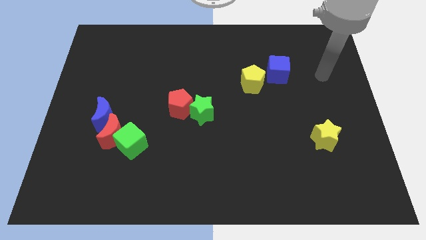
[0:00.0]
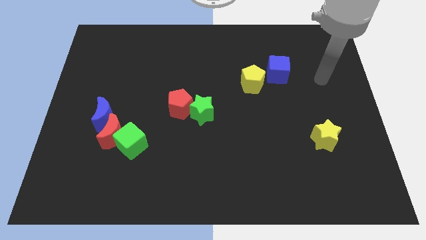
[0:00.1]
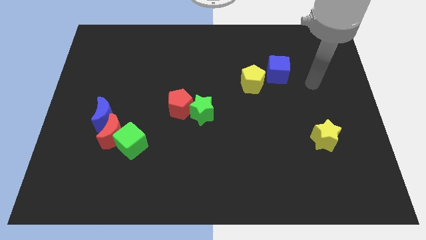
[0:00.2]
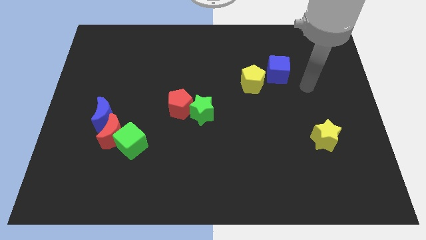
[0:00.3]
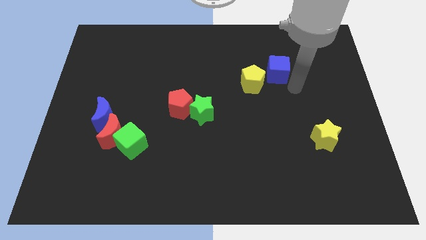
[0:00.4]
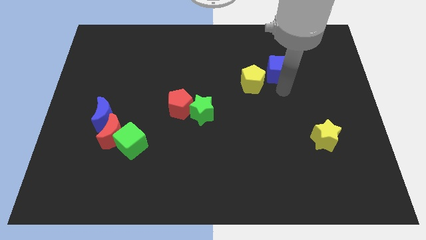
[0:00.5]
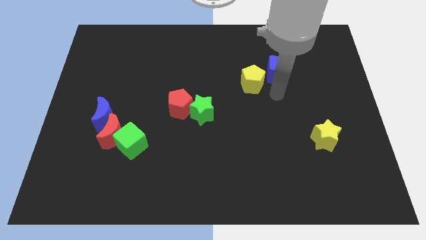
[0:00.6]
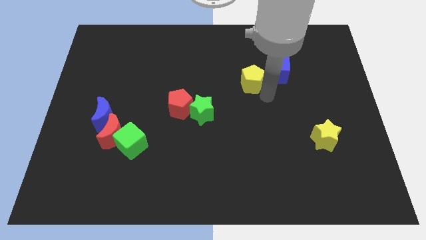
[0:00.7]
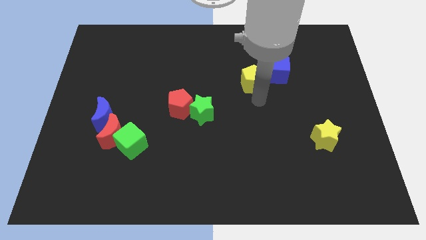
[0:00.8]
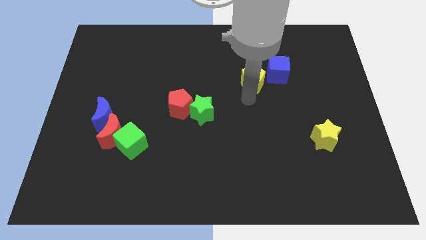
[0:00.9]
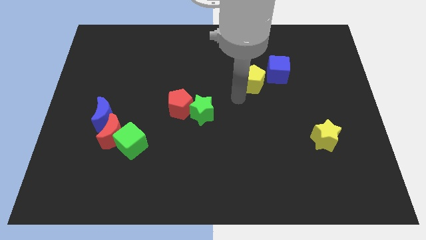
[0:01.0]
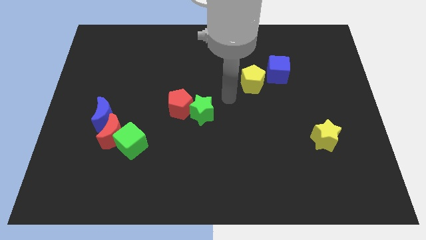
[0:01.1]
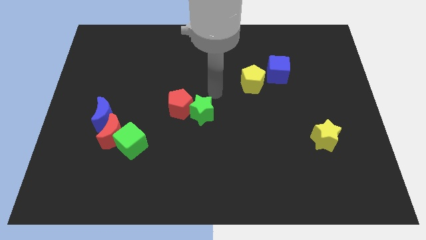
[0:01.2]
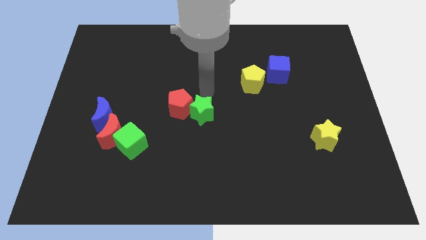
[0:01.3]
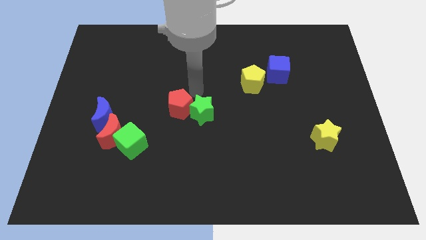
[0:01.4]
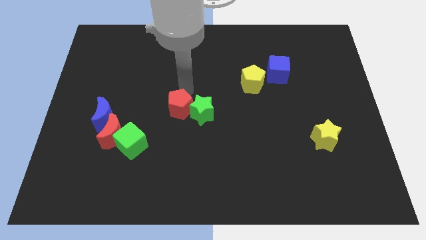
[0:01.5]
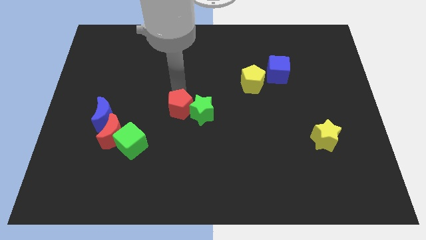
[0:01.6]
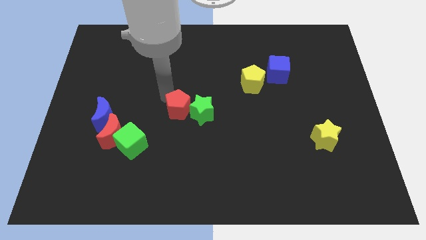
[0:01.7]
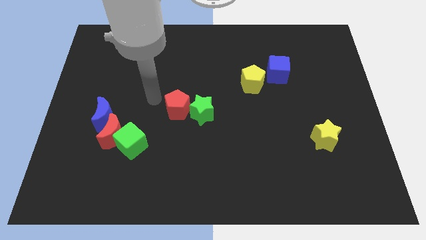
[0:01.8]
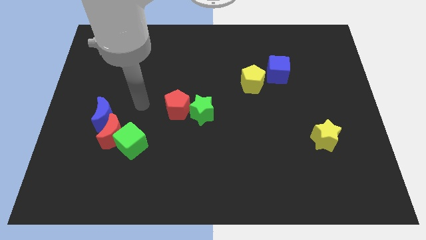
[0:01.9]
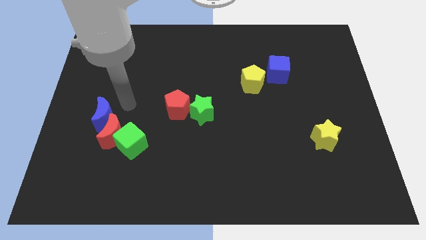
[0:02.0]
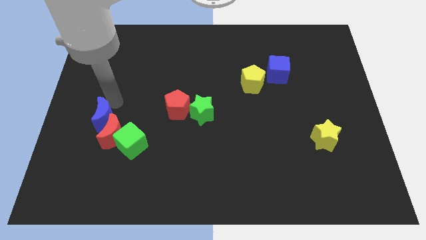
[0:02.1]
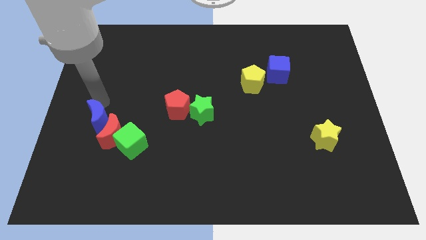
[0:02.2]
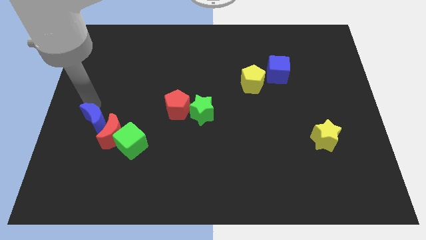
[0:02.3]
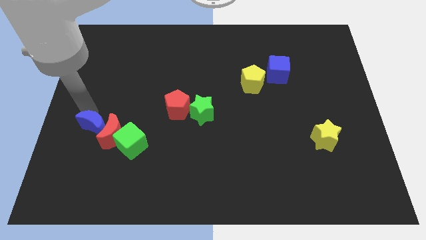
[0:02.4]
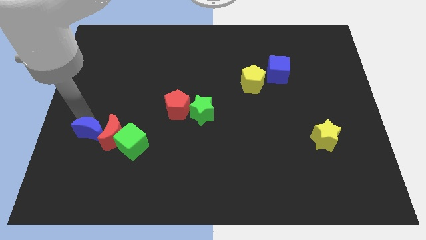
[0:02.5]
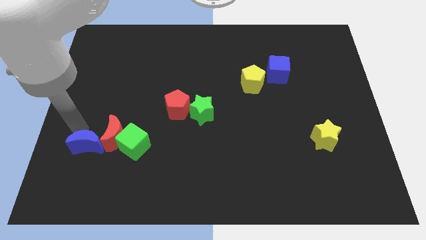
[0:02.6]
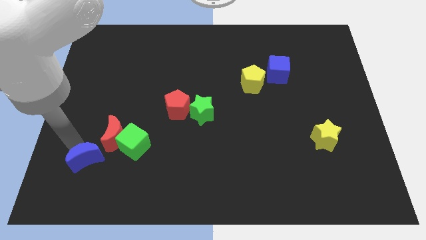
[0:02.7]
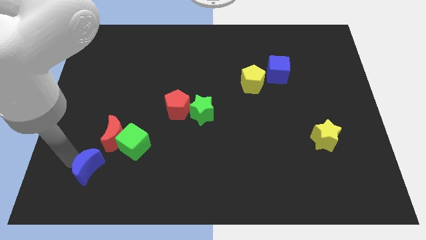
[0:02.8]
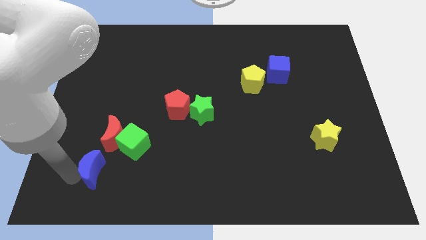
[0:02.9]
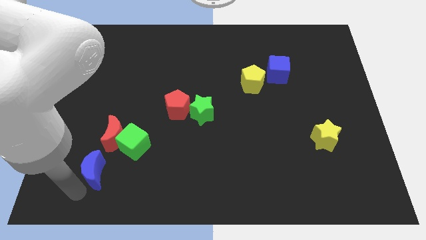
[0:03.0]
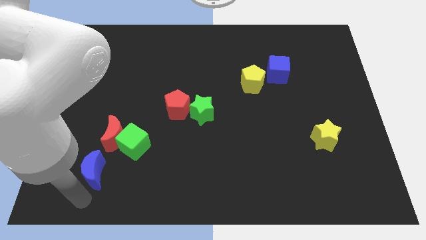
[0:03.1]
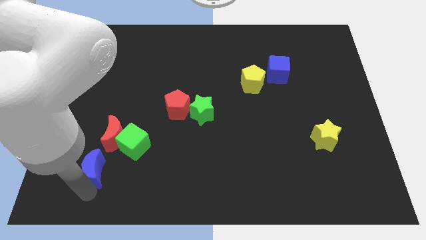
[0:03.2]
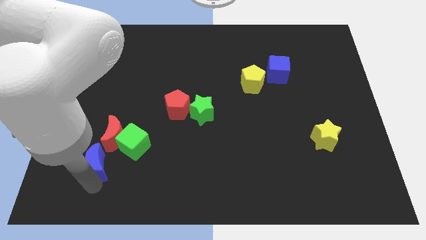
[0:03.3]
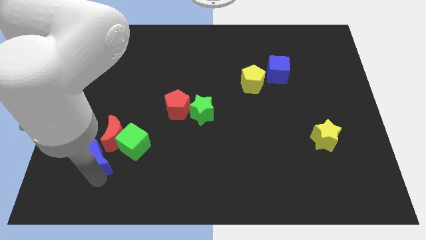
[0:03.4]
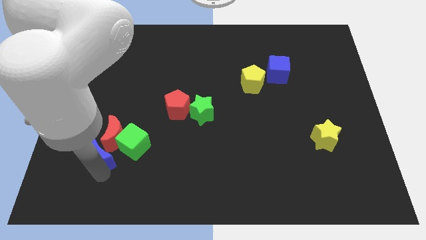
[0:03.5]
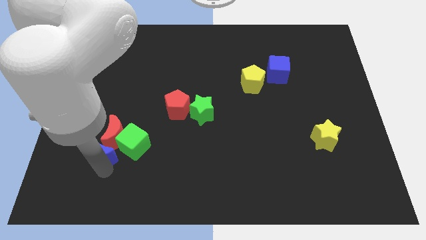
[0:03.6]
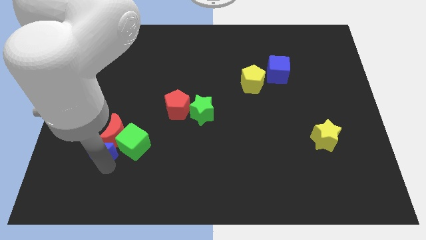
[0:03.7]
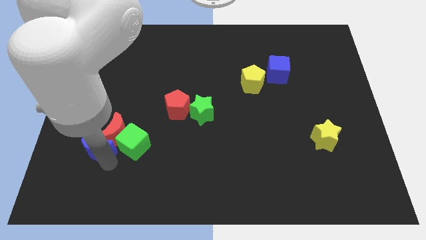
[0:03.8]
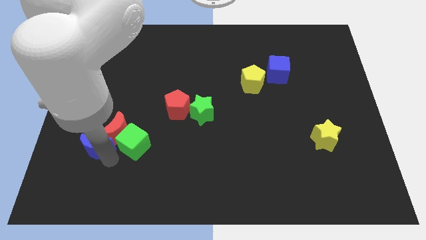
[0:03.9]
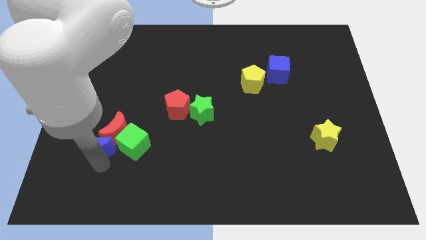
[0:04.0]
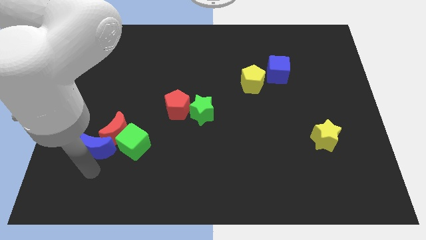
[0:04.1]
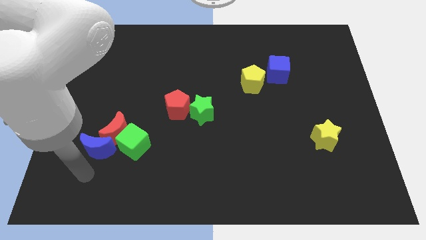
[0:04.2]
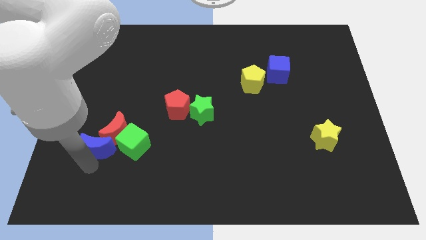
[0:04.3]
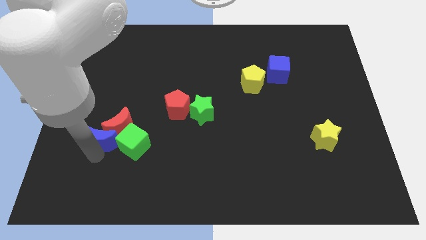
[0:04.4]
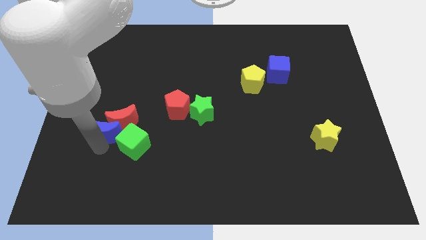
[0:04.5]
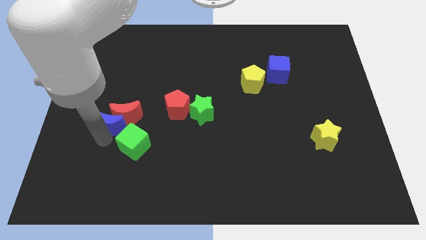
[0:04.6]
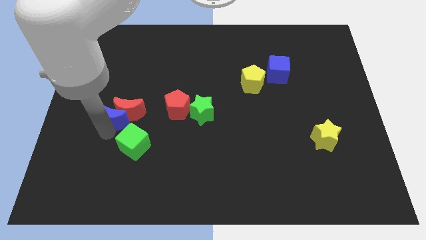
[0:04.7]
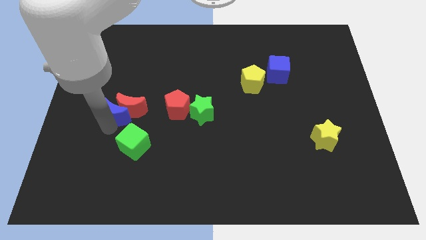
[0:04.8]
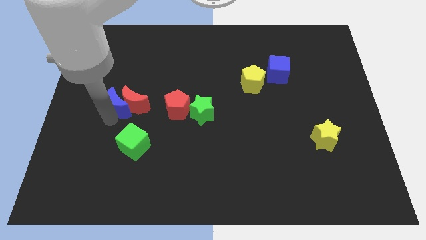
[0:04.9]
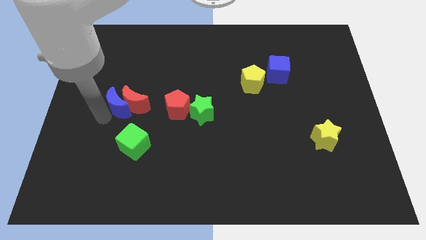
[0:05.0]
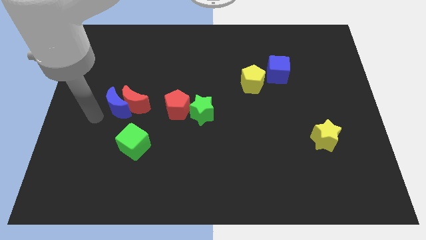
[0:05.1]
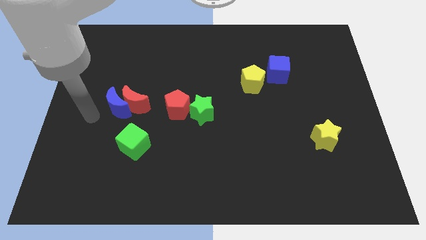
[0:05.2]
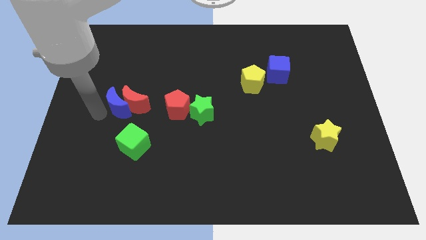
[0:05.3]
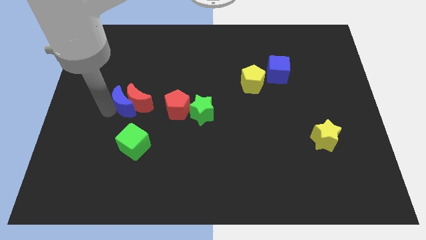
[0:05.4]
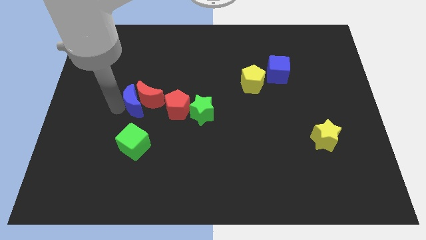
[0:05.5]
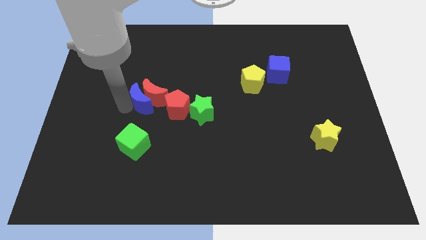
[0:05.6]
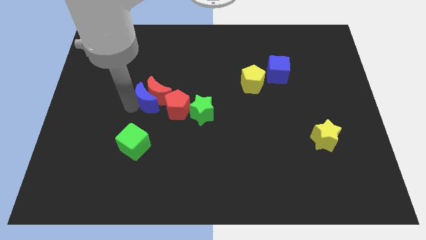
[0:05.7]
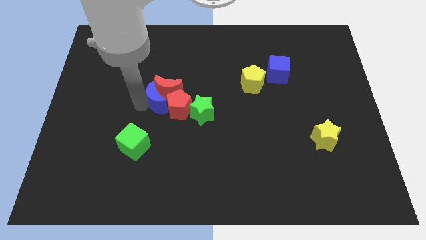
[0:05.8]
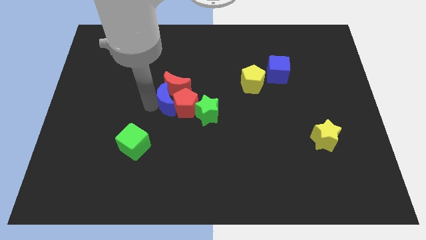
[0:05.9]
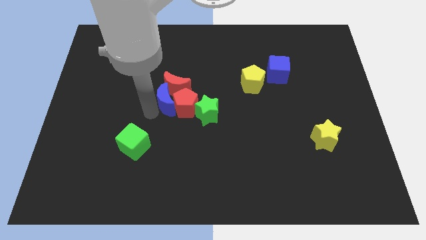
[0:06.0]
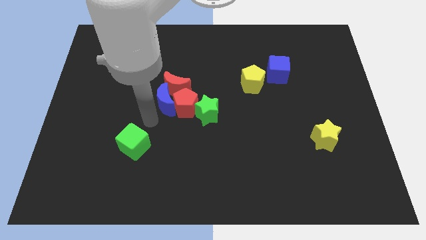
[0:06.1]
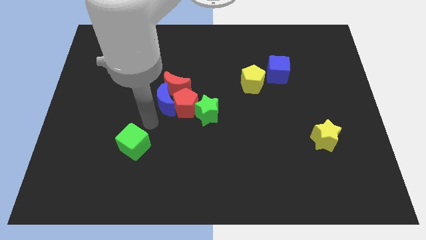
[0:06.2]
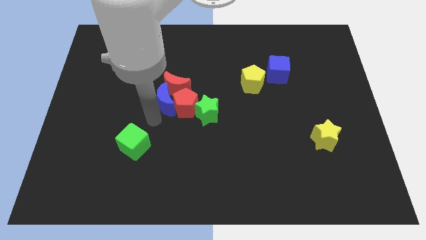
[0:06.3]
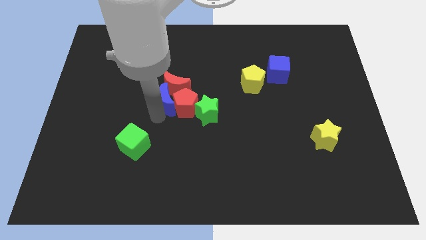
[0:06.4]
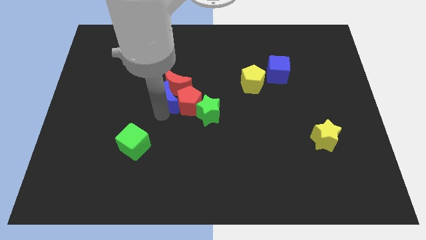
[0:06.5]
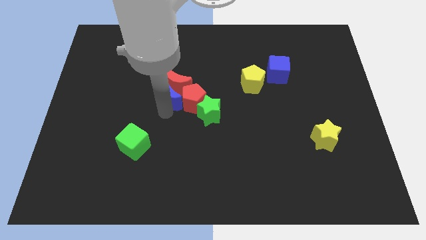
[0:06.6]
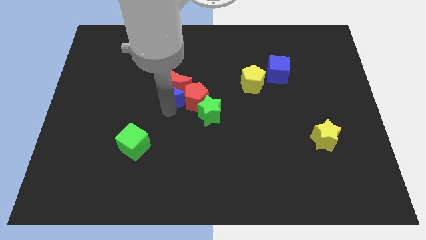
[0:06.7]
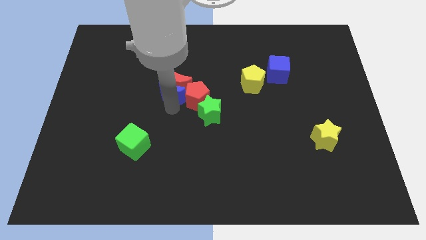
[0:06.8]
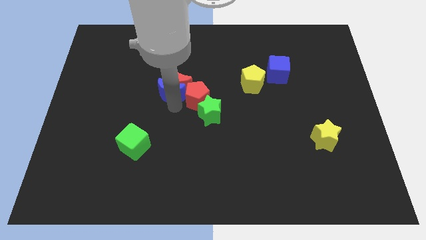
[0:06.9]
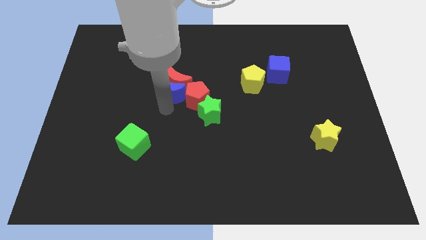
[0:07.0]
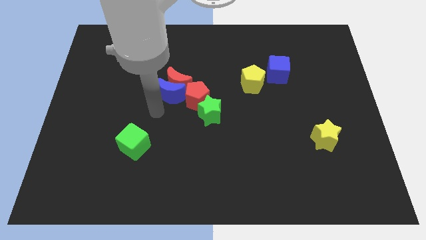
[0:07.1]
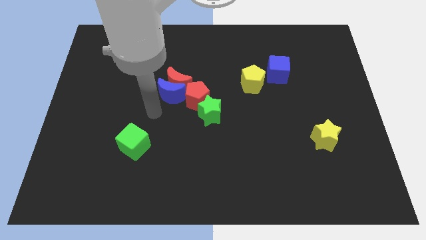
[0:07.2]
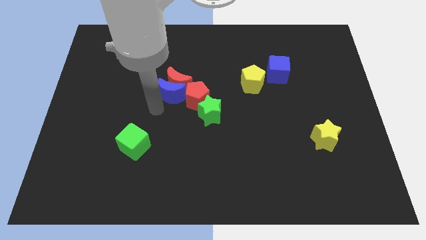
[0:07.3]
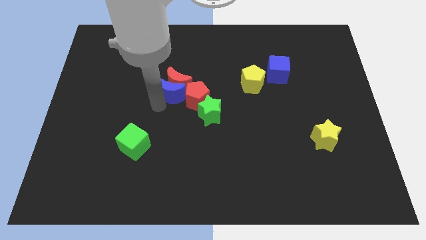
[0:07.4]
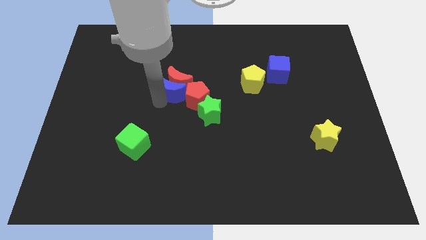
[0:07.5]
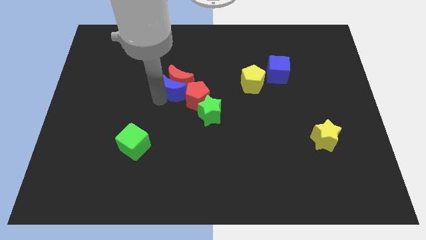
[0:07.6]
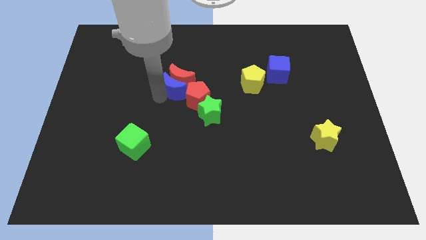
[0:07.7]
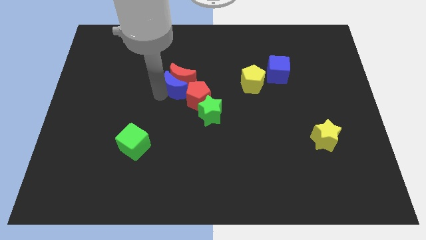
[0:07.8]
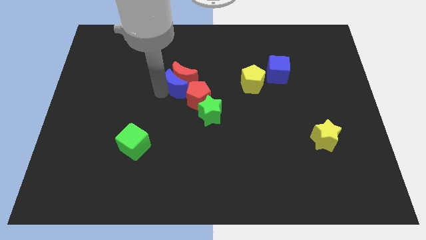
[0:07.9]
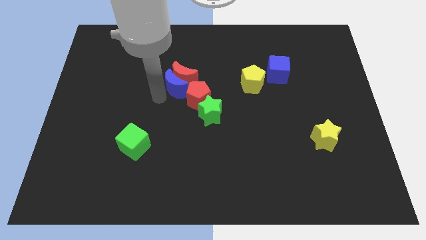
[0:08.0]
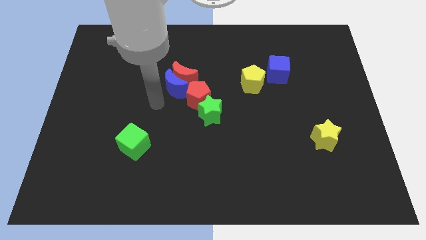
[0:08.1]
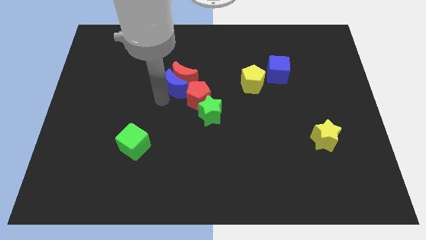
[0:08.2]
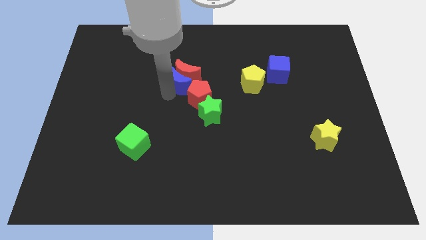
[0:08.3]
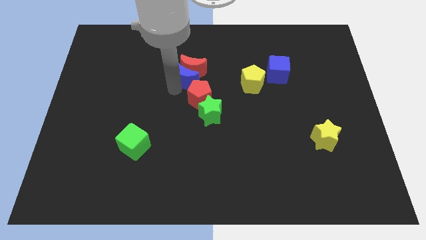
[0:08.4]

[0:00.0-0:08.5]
move the blue moon to the top of the red pentagon
